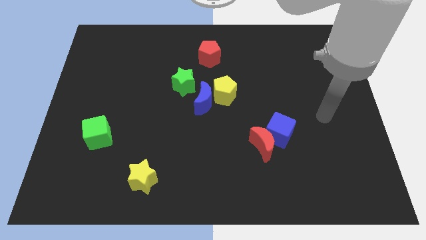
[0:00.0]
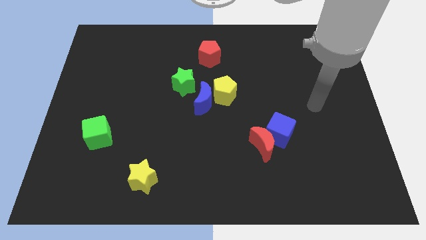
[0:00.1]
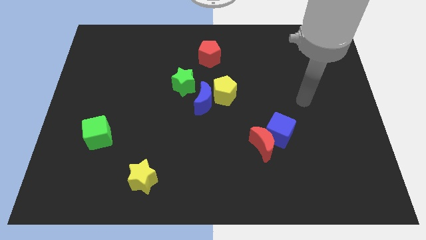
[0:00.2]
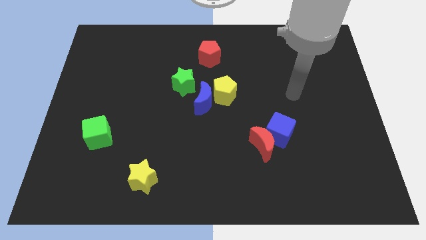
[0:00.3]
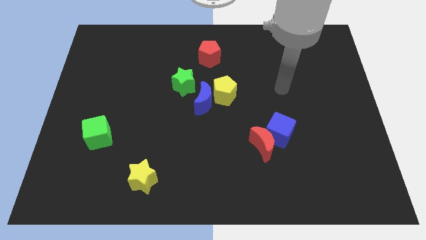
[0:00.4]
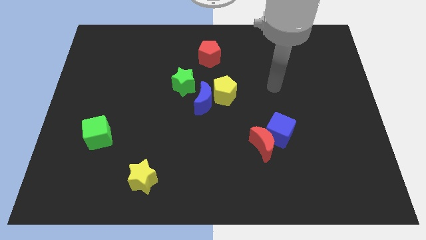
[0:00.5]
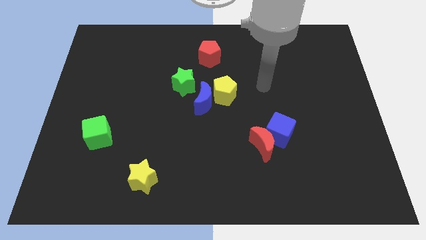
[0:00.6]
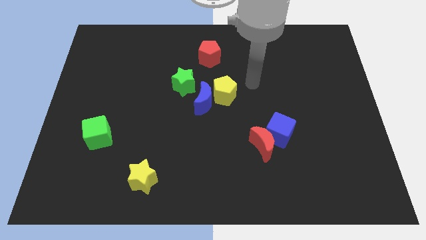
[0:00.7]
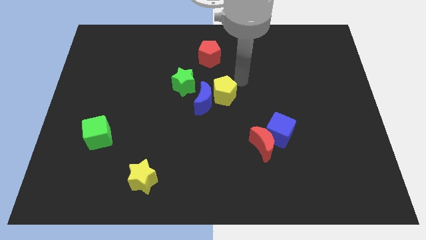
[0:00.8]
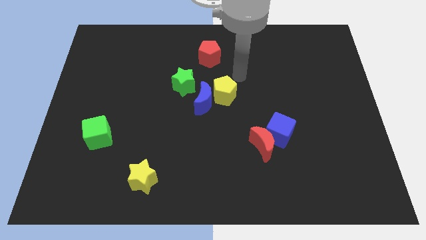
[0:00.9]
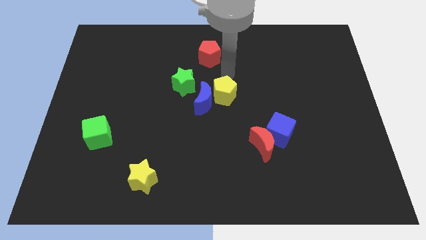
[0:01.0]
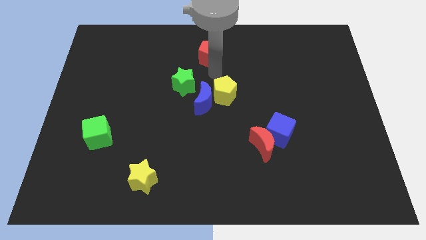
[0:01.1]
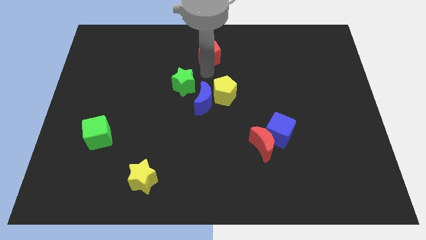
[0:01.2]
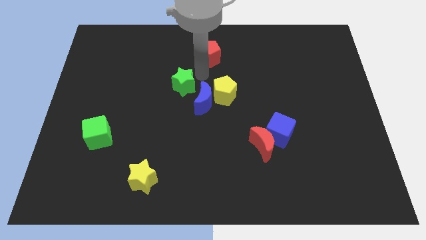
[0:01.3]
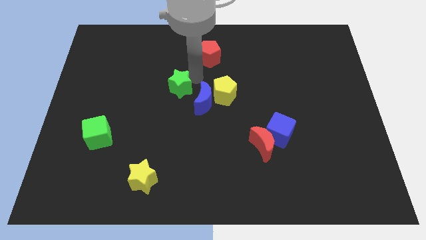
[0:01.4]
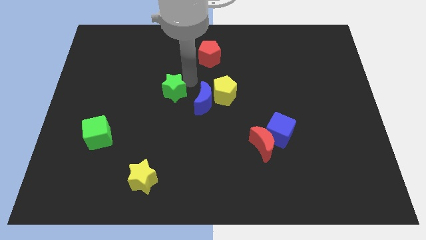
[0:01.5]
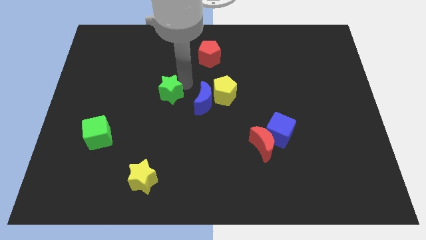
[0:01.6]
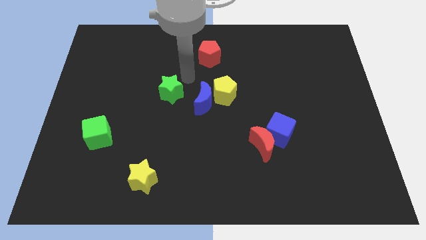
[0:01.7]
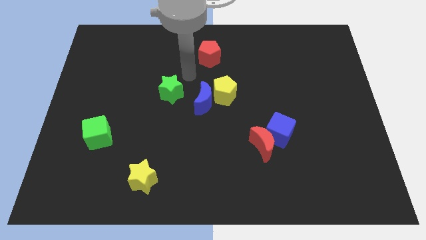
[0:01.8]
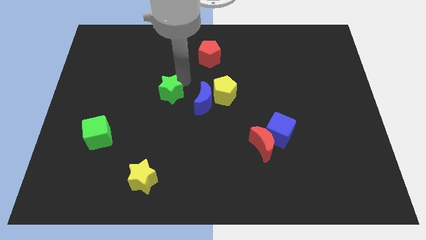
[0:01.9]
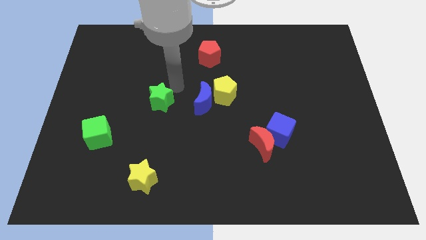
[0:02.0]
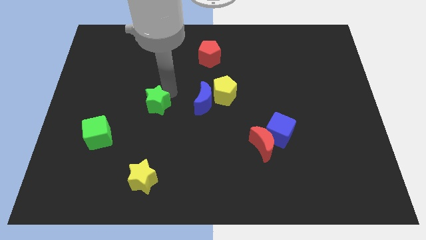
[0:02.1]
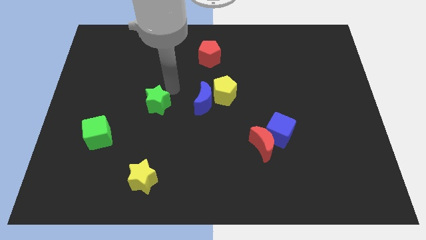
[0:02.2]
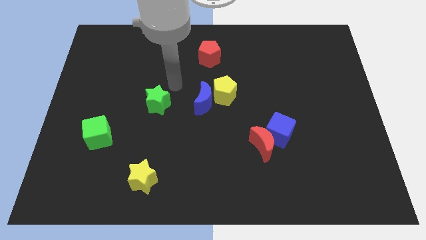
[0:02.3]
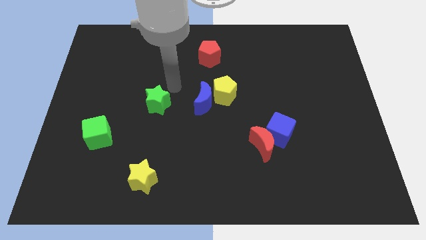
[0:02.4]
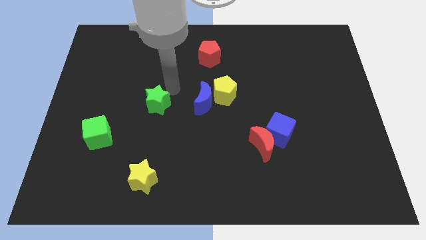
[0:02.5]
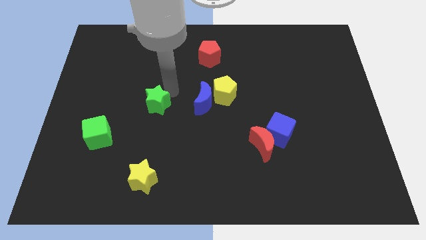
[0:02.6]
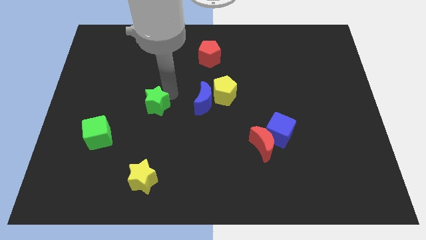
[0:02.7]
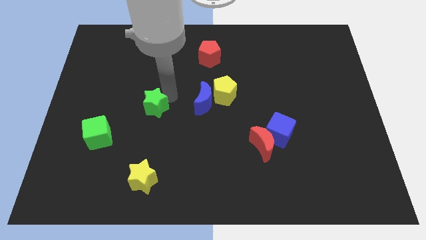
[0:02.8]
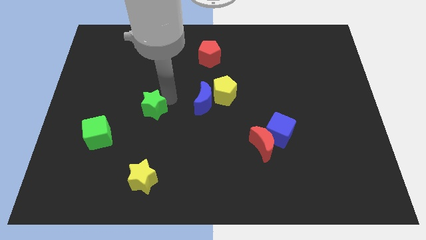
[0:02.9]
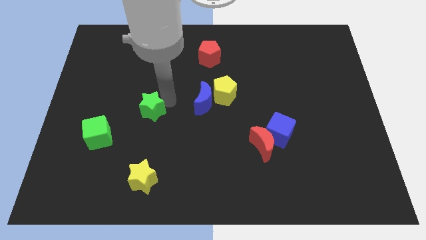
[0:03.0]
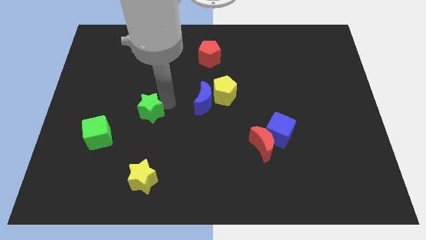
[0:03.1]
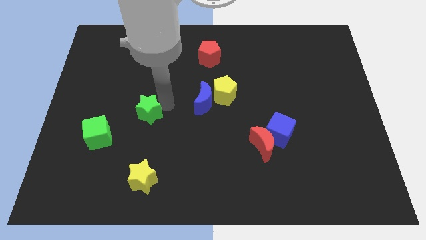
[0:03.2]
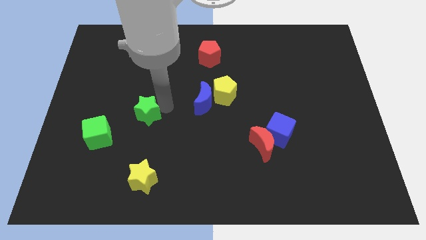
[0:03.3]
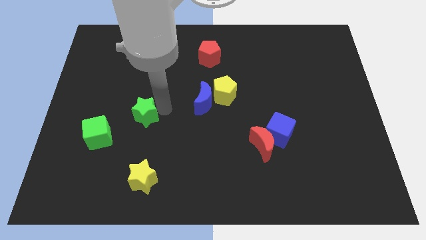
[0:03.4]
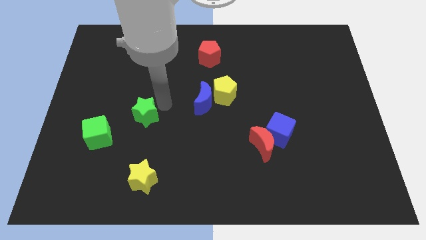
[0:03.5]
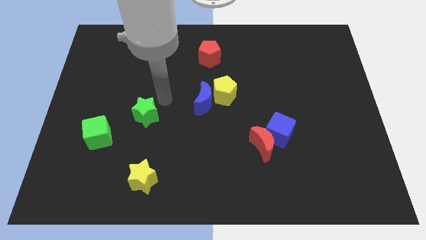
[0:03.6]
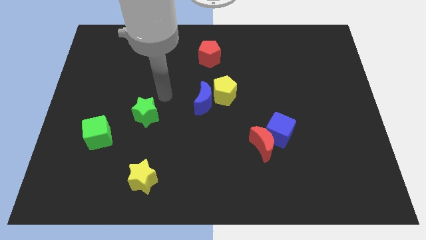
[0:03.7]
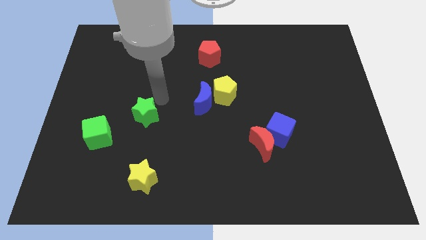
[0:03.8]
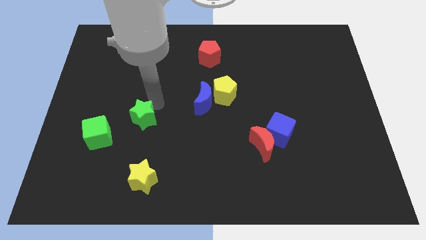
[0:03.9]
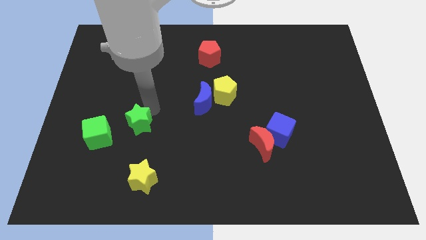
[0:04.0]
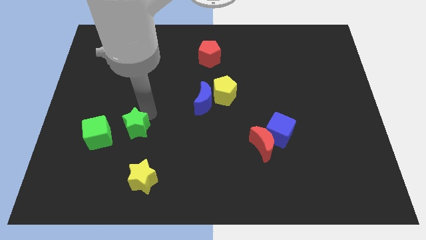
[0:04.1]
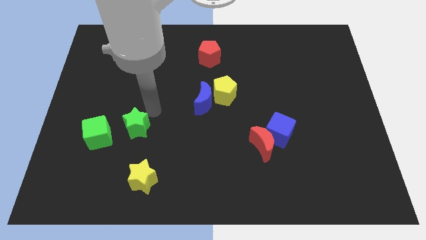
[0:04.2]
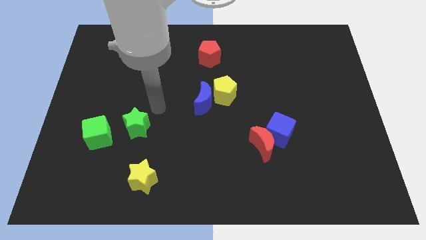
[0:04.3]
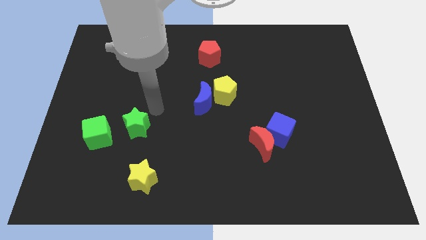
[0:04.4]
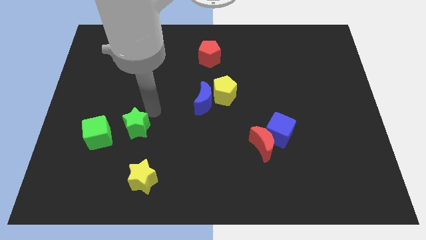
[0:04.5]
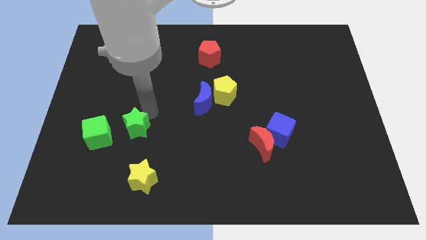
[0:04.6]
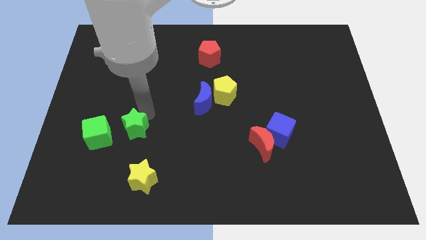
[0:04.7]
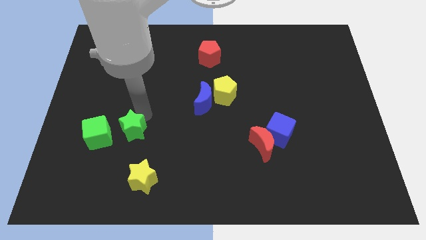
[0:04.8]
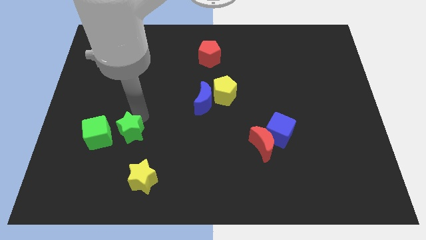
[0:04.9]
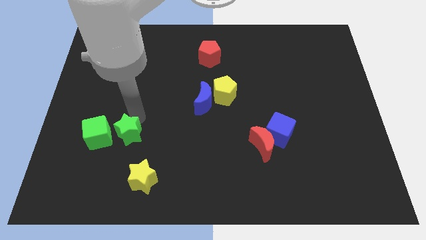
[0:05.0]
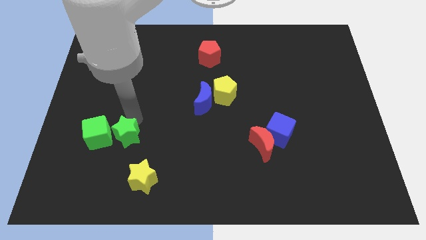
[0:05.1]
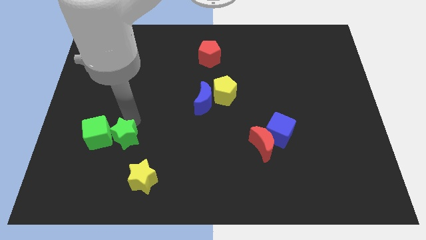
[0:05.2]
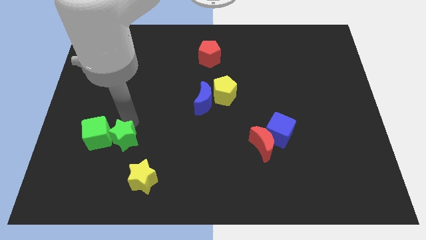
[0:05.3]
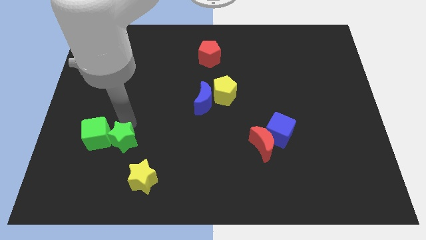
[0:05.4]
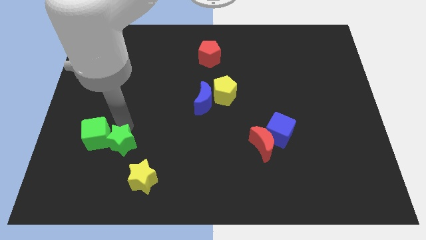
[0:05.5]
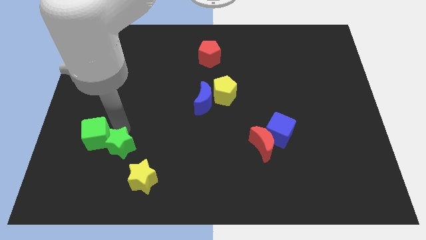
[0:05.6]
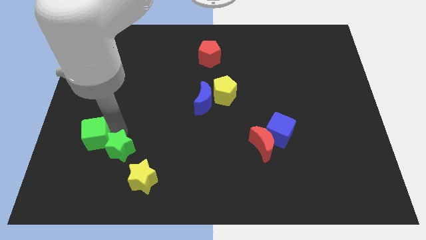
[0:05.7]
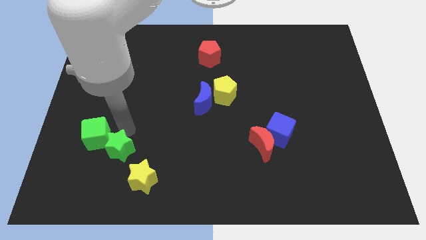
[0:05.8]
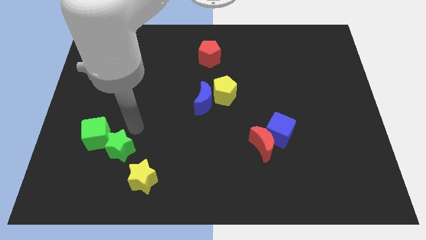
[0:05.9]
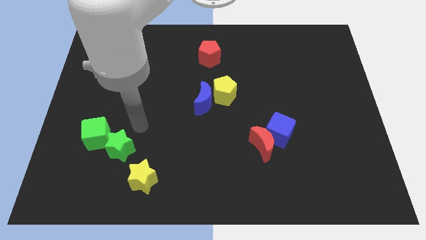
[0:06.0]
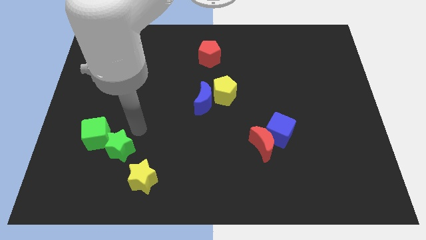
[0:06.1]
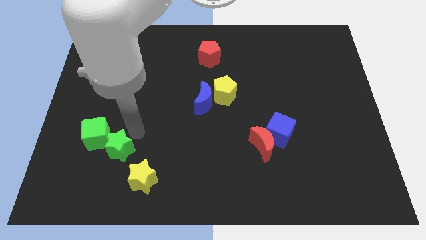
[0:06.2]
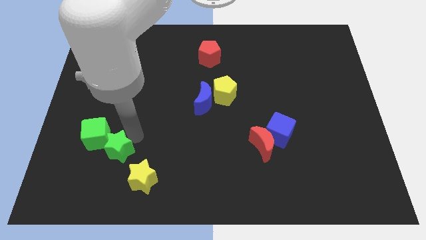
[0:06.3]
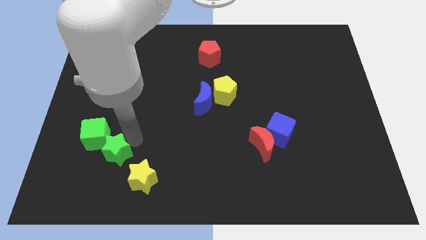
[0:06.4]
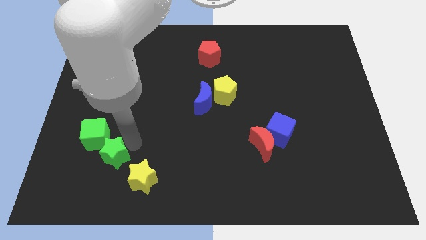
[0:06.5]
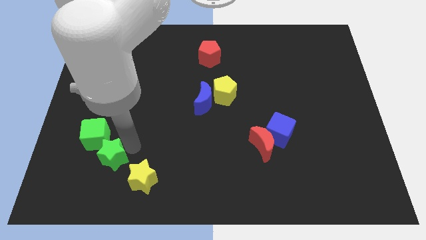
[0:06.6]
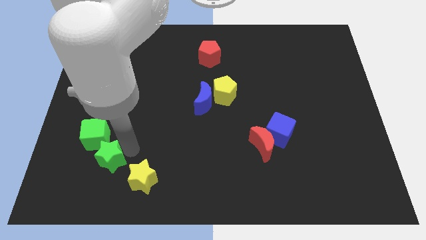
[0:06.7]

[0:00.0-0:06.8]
push the green star to the left of the yellow star

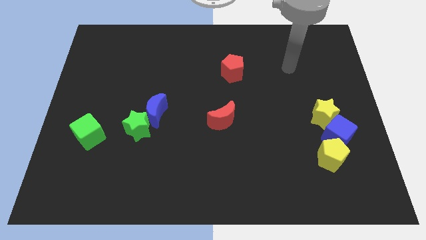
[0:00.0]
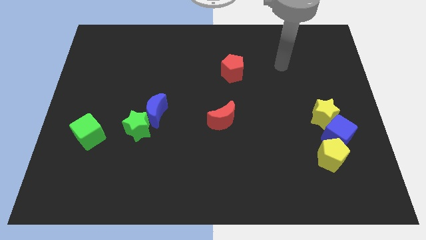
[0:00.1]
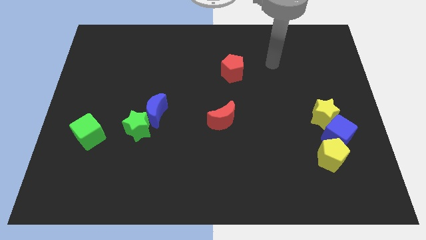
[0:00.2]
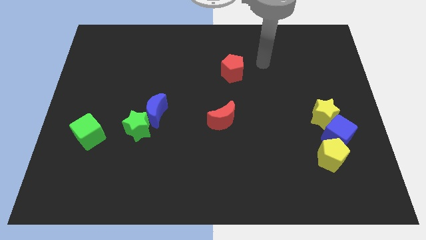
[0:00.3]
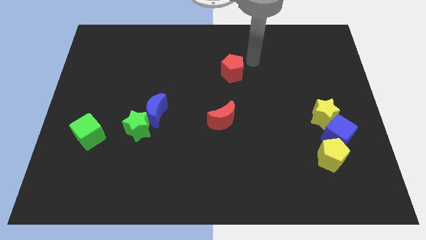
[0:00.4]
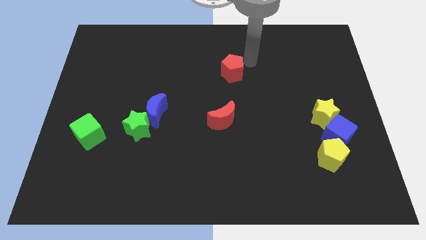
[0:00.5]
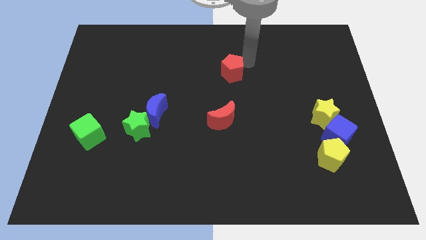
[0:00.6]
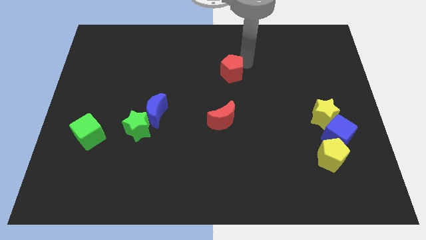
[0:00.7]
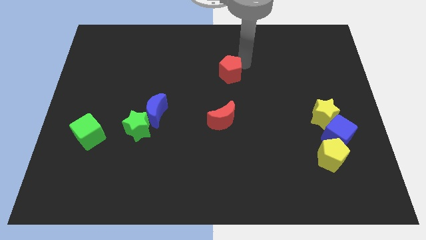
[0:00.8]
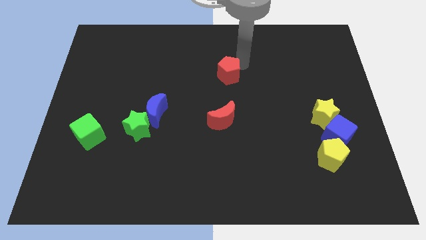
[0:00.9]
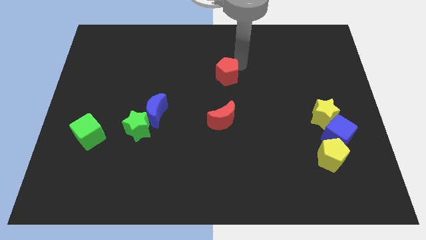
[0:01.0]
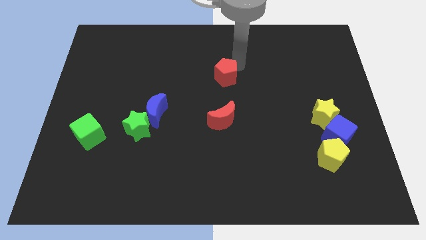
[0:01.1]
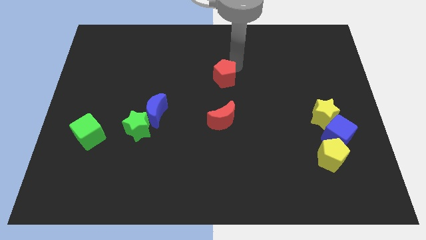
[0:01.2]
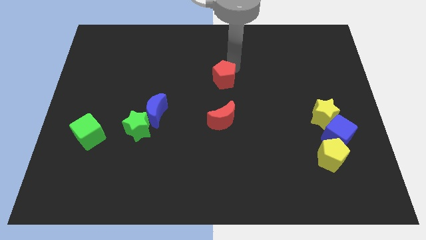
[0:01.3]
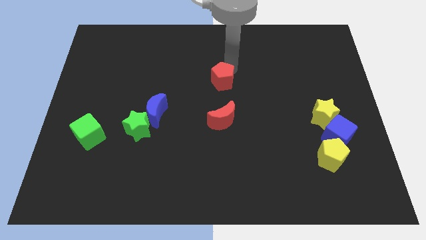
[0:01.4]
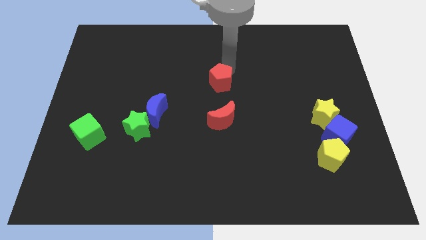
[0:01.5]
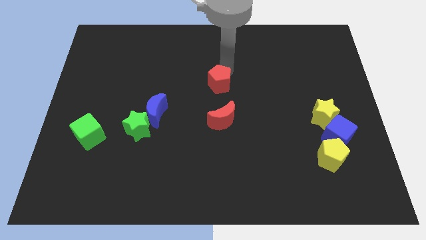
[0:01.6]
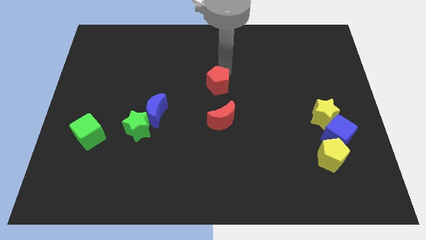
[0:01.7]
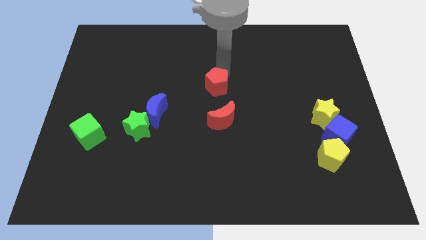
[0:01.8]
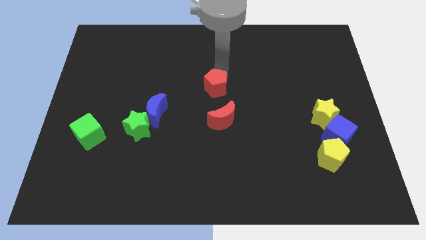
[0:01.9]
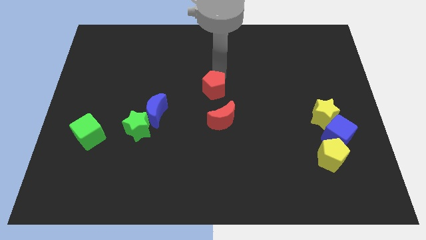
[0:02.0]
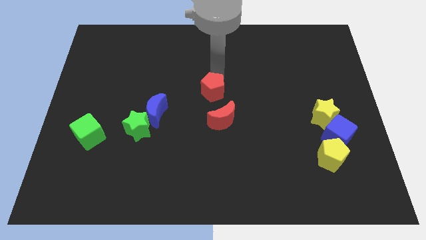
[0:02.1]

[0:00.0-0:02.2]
push the red pentagon to the top left side of the red moon
